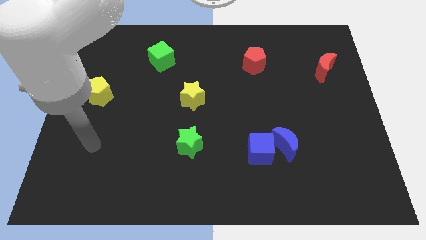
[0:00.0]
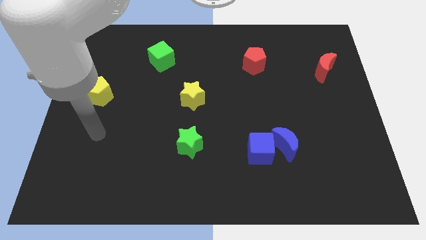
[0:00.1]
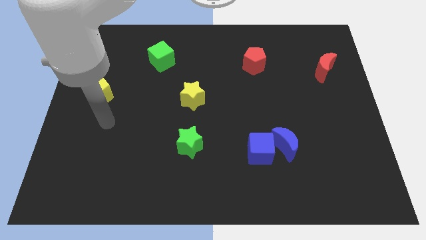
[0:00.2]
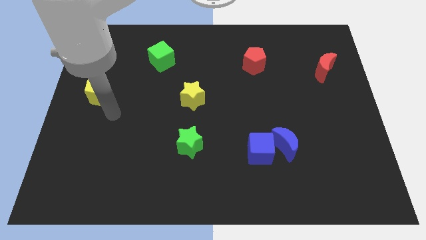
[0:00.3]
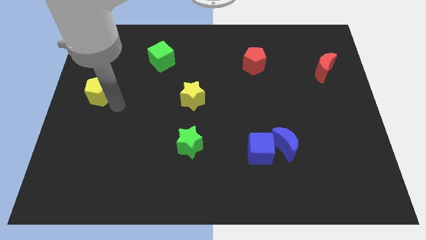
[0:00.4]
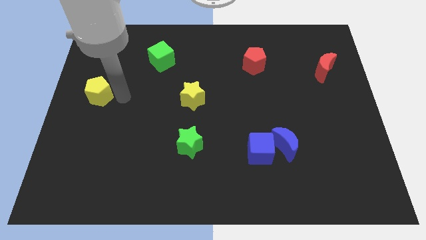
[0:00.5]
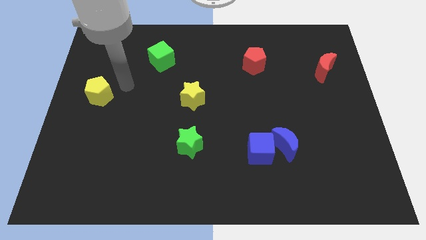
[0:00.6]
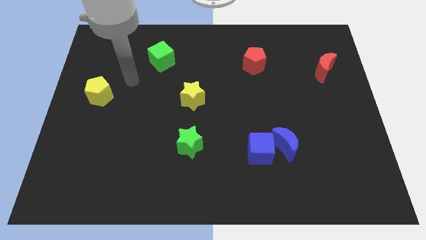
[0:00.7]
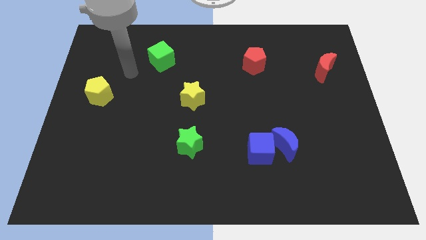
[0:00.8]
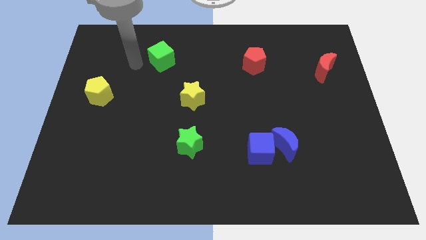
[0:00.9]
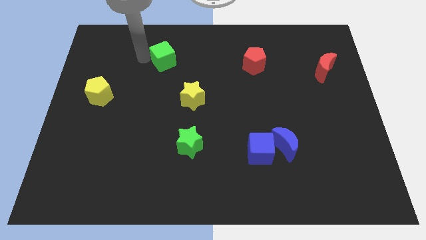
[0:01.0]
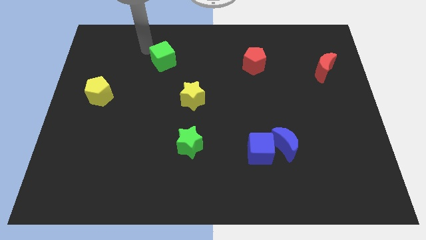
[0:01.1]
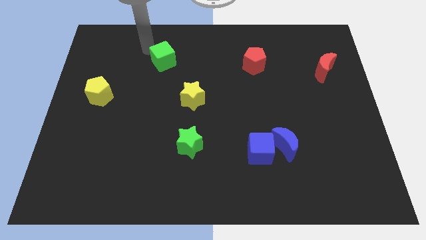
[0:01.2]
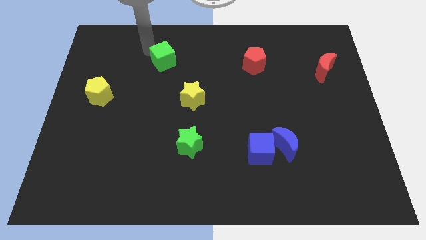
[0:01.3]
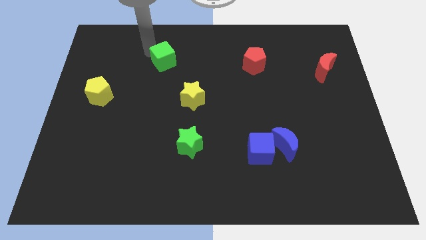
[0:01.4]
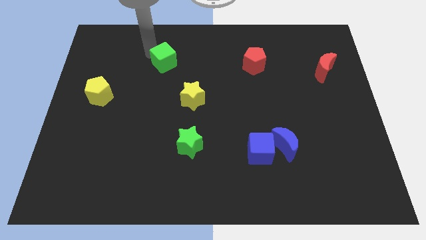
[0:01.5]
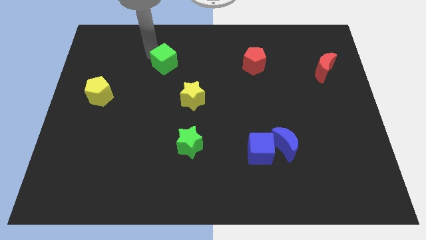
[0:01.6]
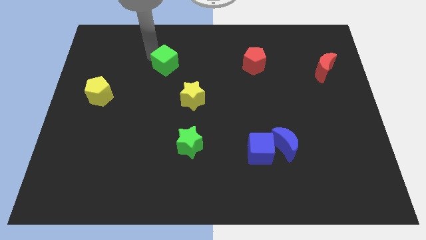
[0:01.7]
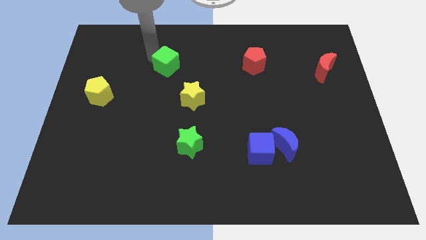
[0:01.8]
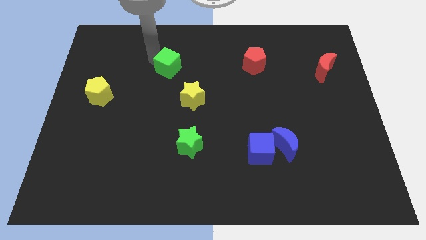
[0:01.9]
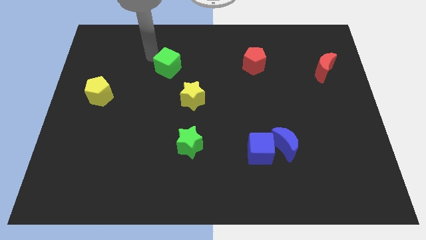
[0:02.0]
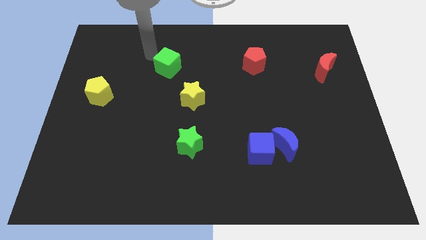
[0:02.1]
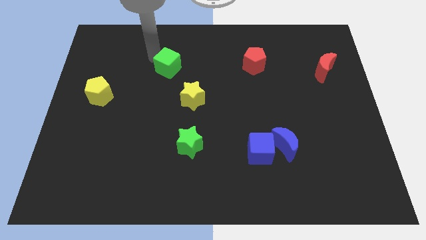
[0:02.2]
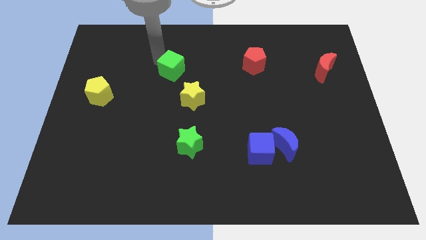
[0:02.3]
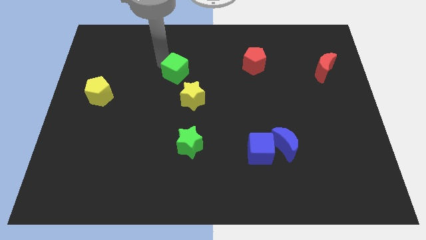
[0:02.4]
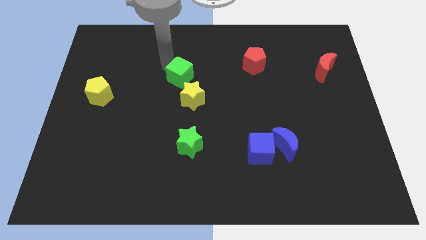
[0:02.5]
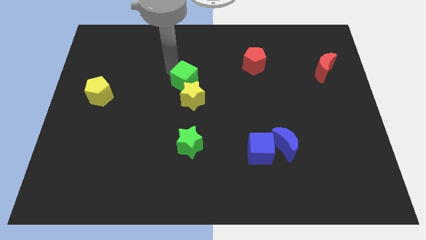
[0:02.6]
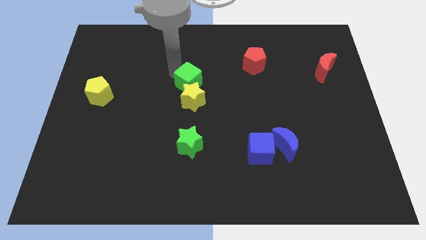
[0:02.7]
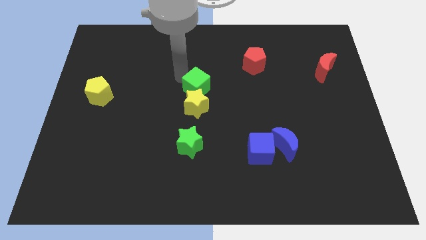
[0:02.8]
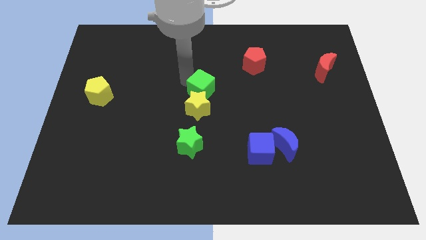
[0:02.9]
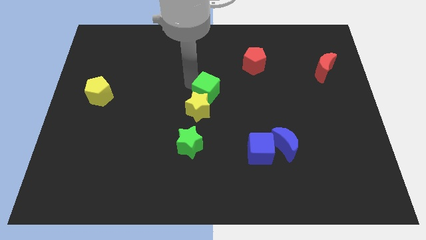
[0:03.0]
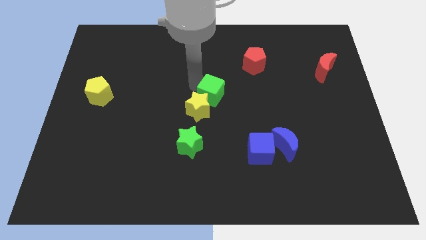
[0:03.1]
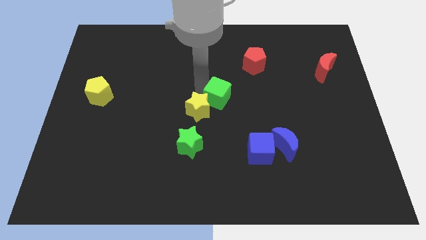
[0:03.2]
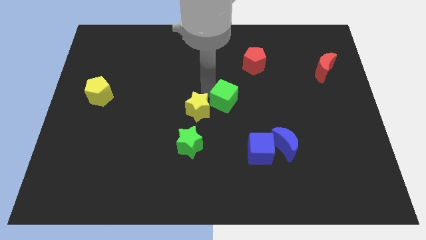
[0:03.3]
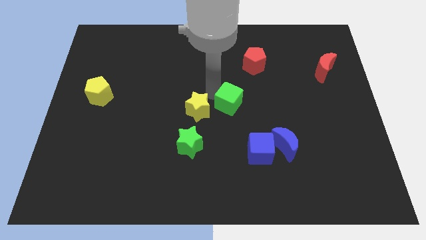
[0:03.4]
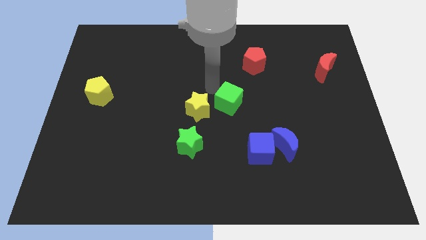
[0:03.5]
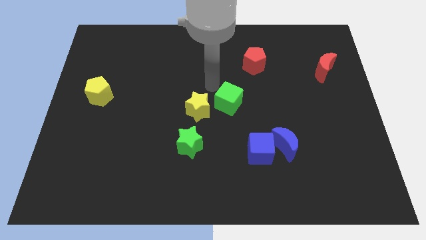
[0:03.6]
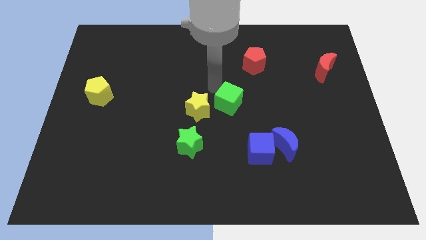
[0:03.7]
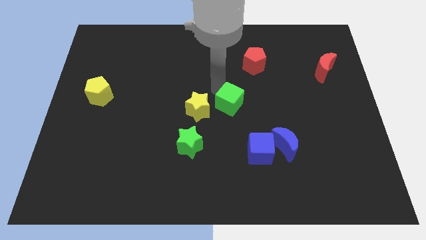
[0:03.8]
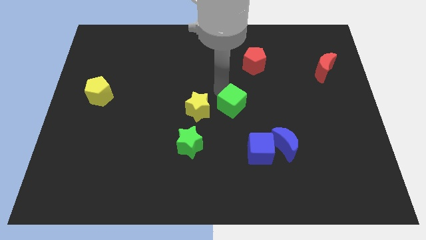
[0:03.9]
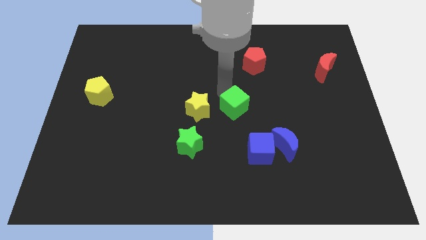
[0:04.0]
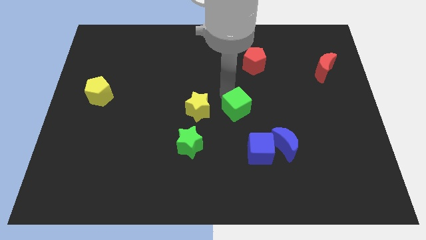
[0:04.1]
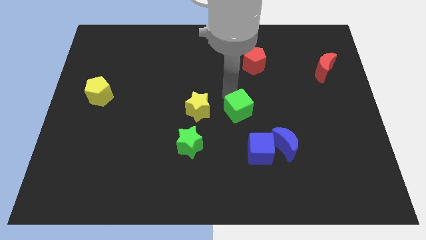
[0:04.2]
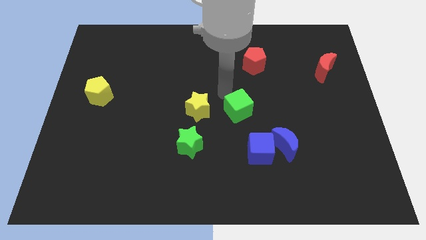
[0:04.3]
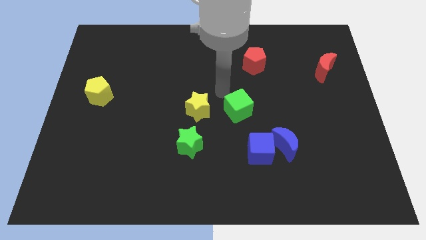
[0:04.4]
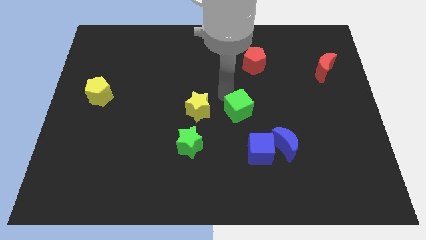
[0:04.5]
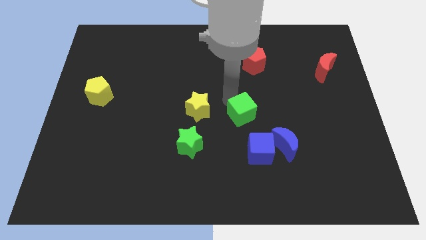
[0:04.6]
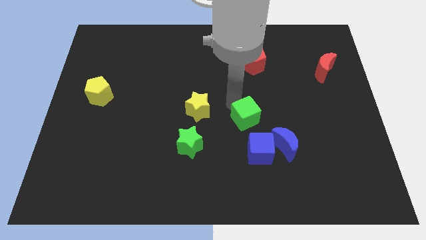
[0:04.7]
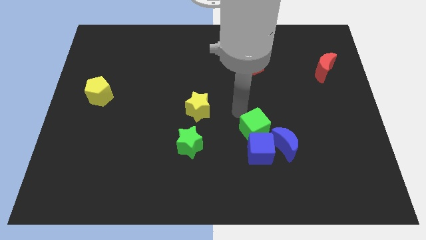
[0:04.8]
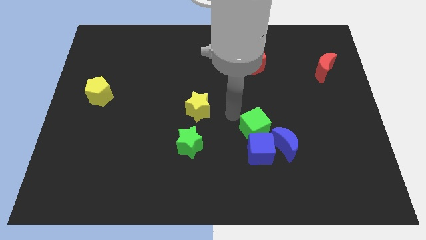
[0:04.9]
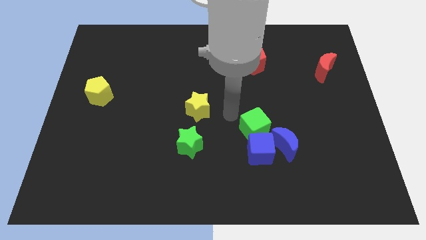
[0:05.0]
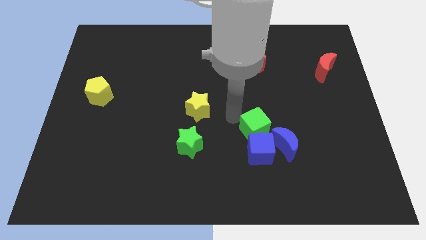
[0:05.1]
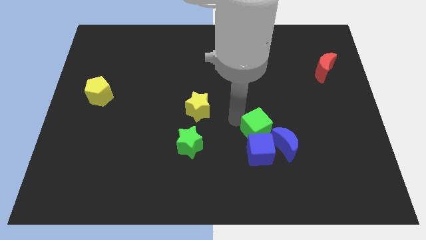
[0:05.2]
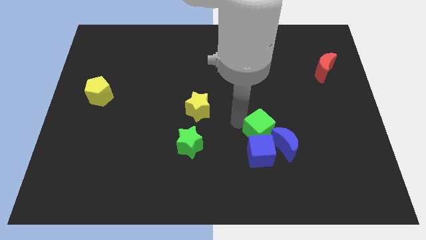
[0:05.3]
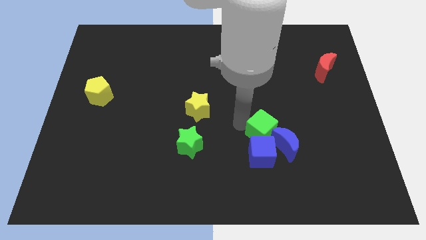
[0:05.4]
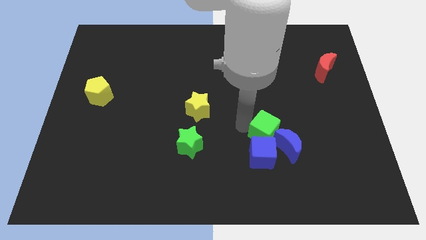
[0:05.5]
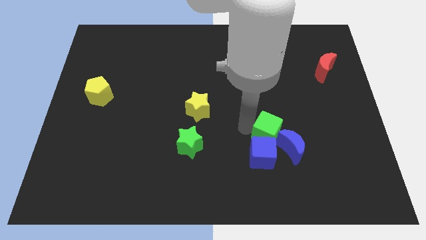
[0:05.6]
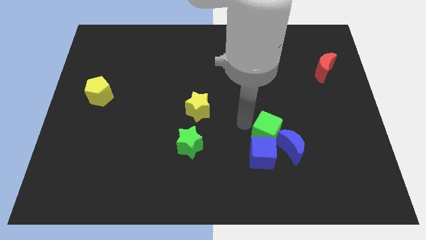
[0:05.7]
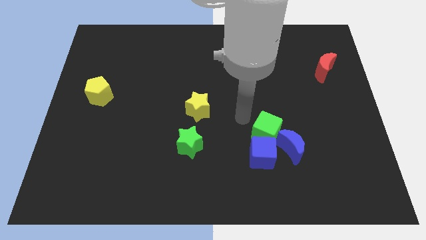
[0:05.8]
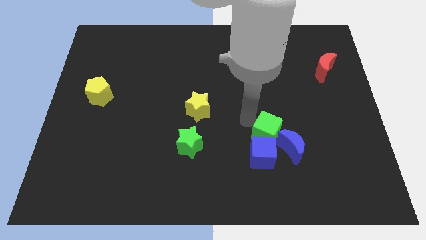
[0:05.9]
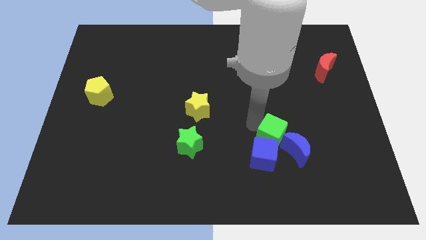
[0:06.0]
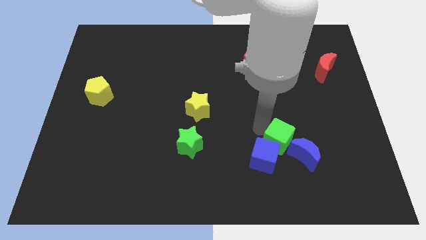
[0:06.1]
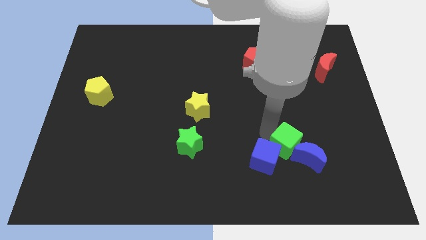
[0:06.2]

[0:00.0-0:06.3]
move the green cube close to the blue moon

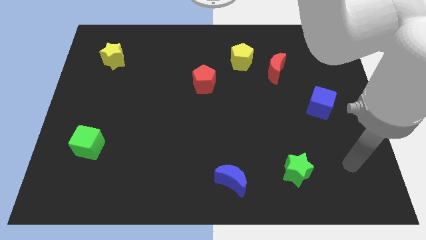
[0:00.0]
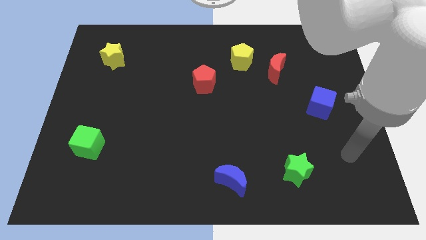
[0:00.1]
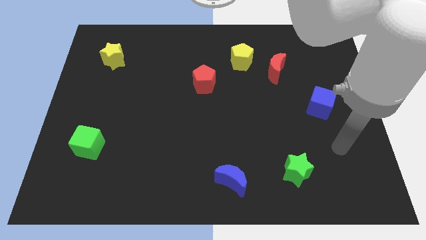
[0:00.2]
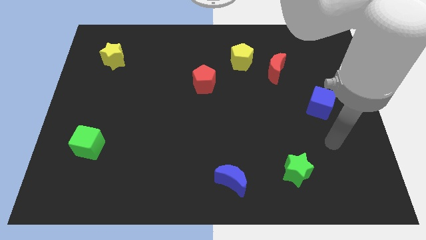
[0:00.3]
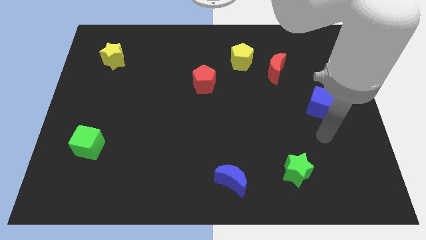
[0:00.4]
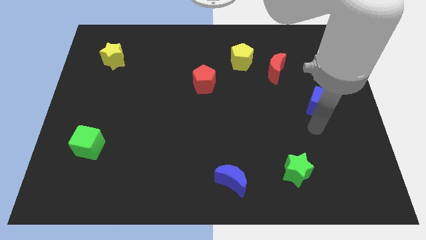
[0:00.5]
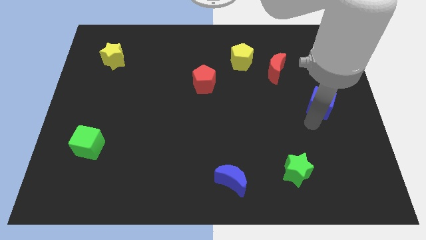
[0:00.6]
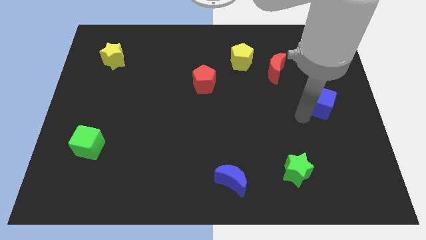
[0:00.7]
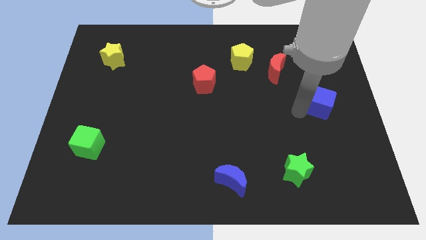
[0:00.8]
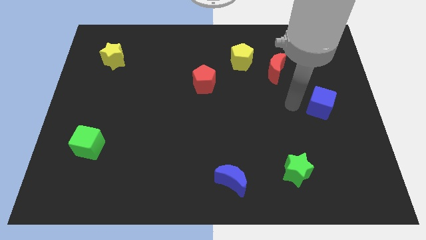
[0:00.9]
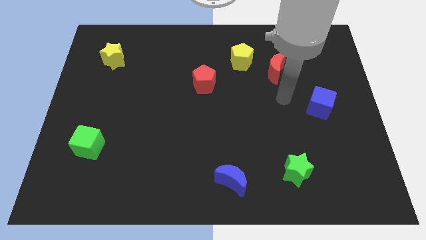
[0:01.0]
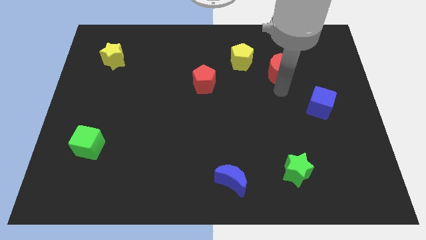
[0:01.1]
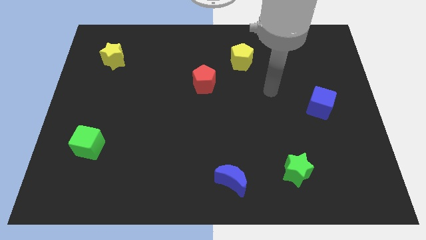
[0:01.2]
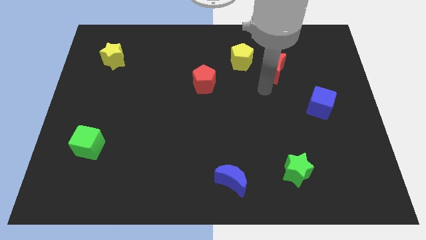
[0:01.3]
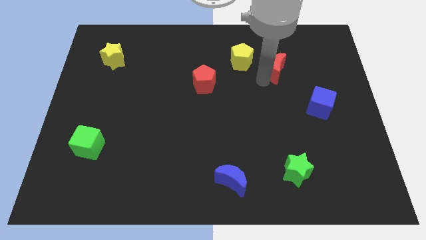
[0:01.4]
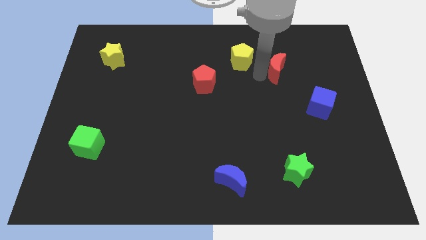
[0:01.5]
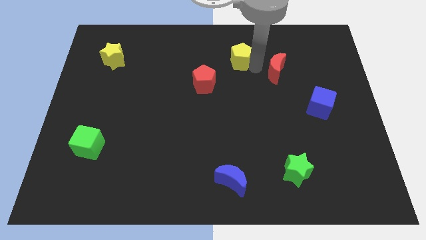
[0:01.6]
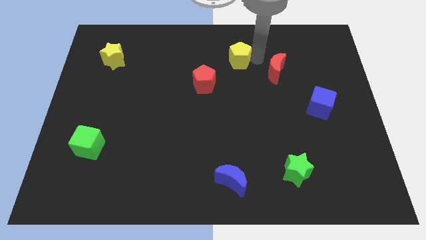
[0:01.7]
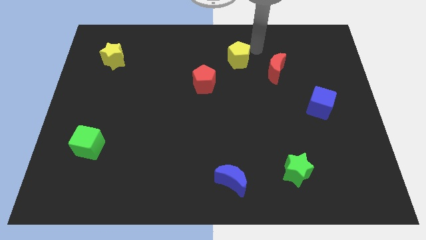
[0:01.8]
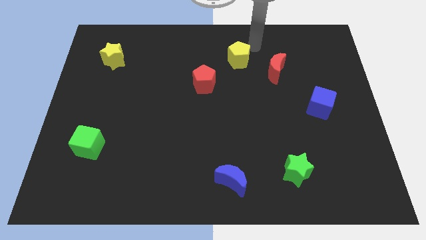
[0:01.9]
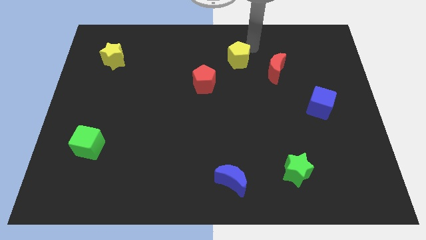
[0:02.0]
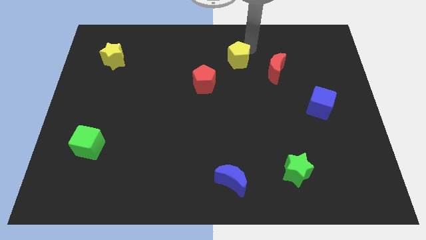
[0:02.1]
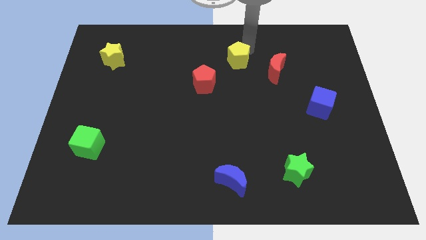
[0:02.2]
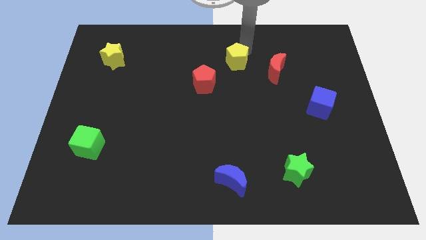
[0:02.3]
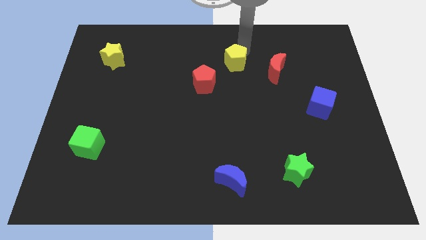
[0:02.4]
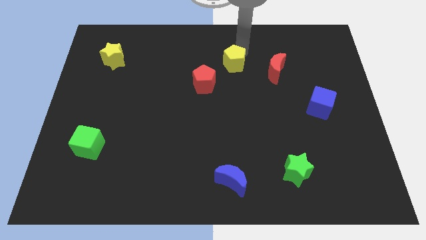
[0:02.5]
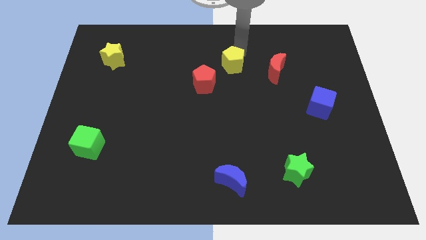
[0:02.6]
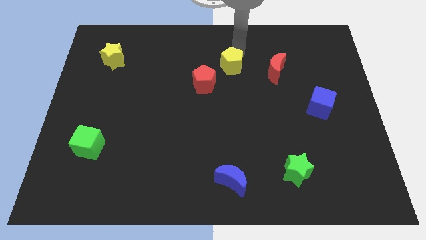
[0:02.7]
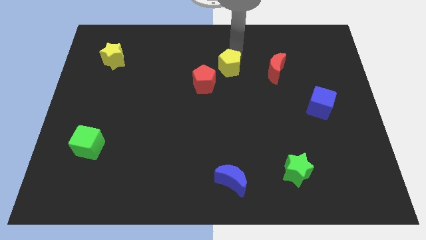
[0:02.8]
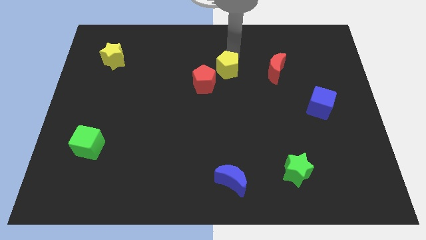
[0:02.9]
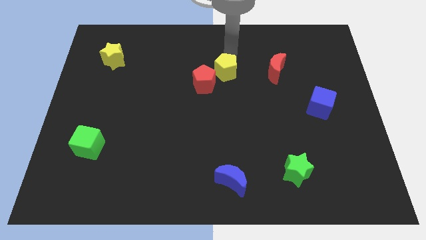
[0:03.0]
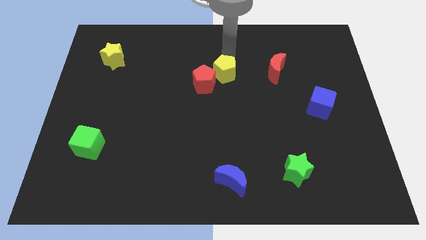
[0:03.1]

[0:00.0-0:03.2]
slide the yellow pentagon close to the red pentagon
